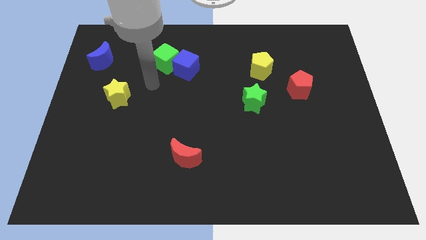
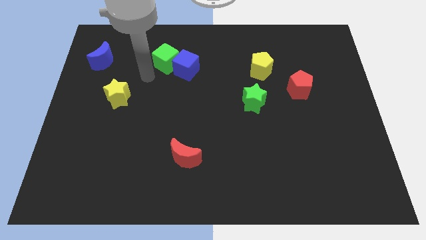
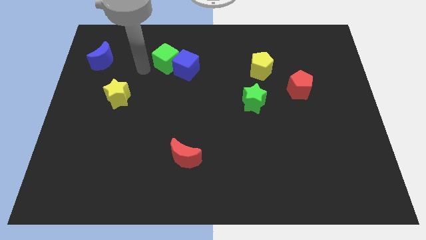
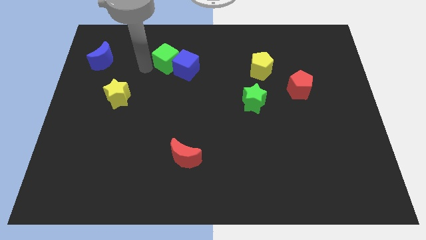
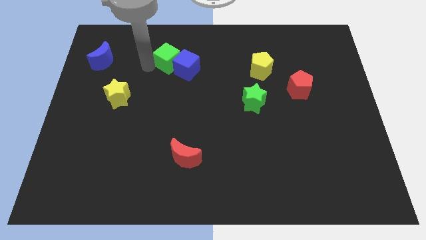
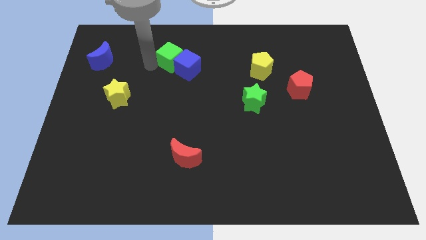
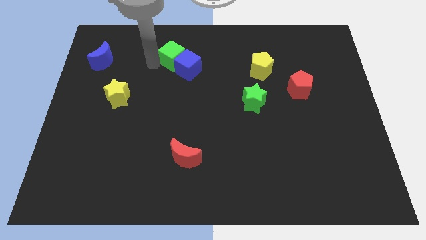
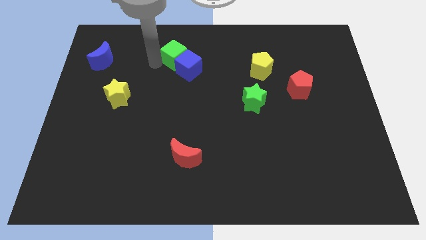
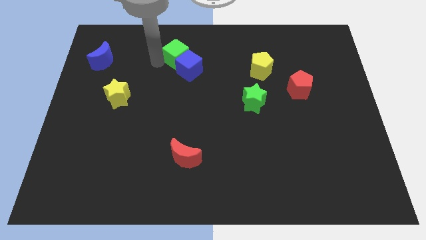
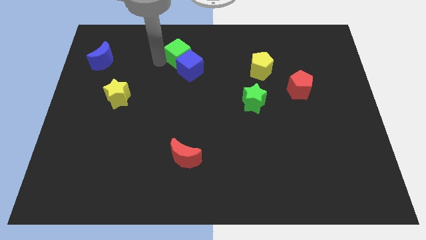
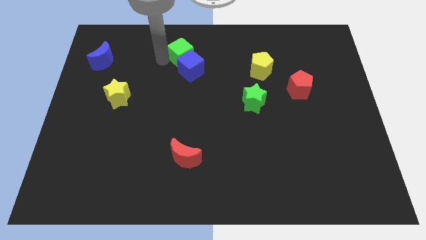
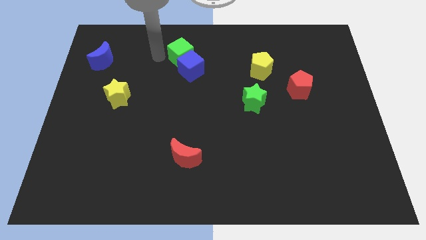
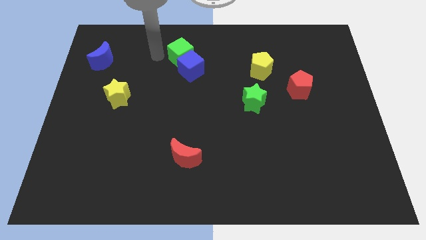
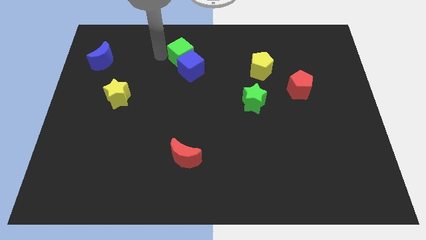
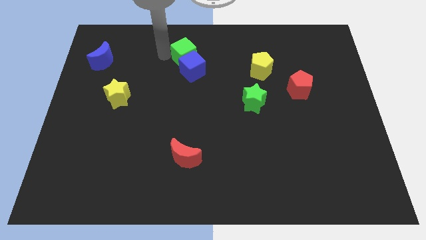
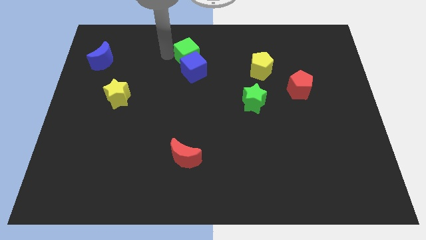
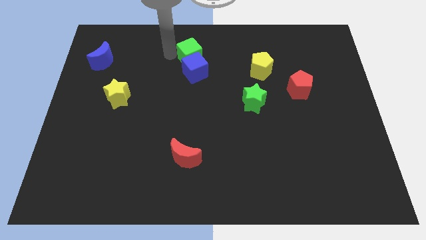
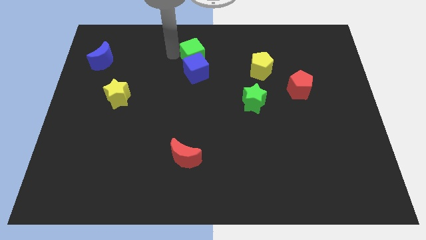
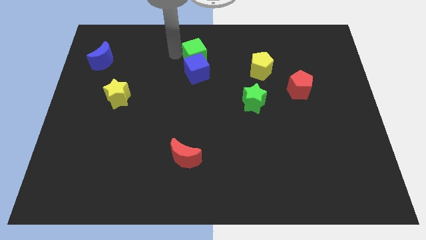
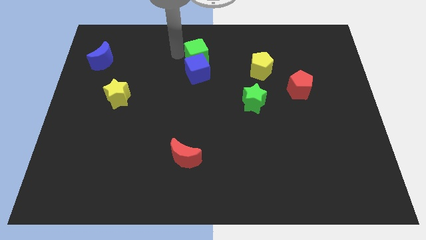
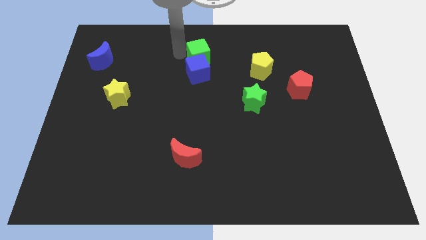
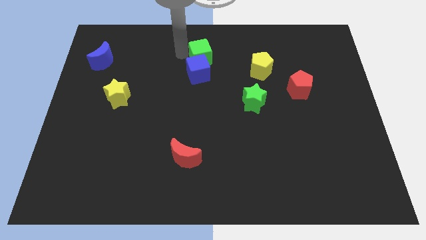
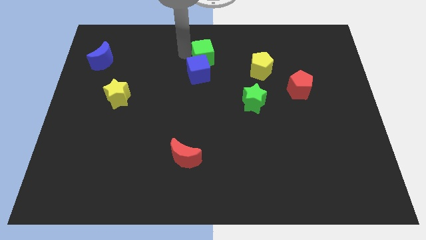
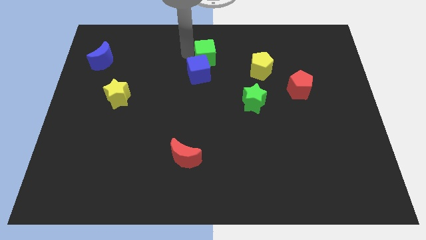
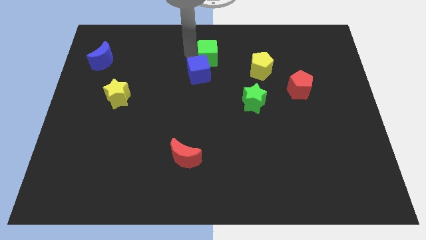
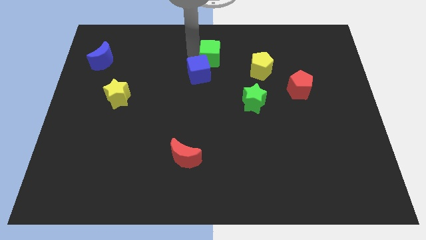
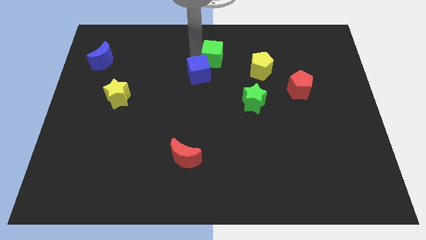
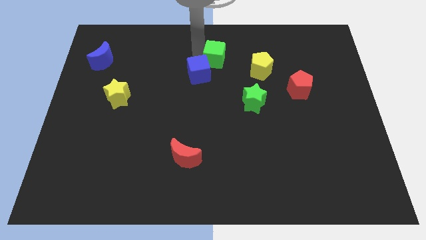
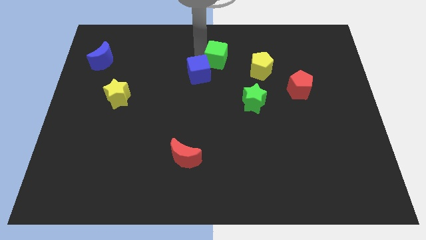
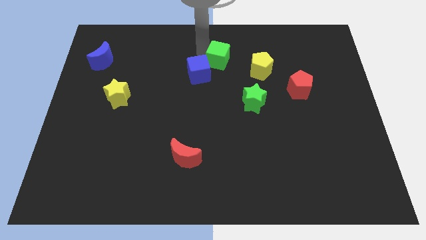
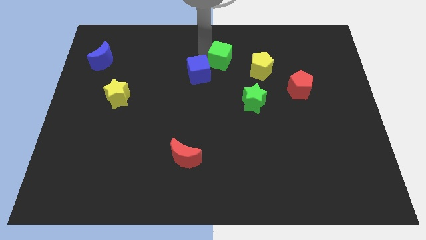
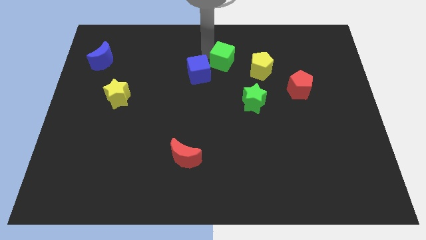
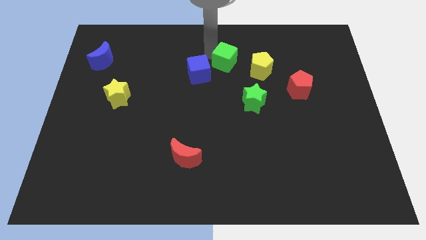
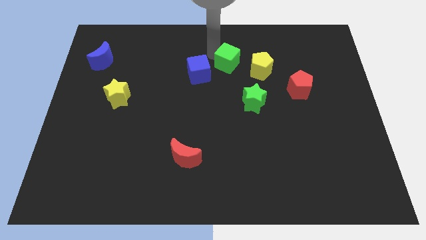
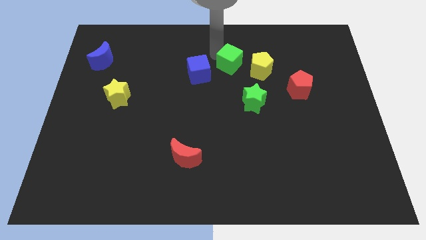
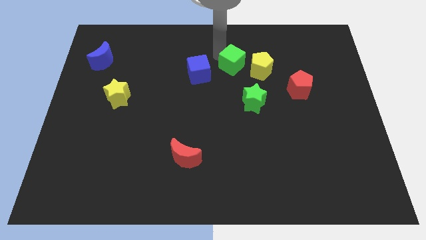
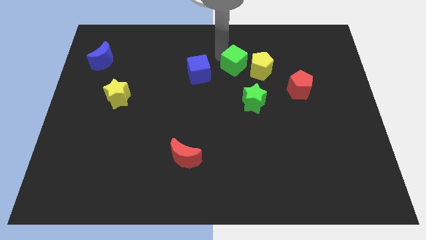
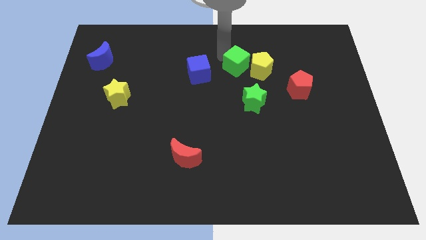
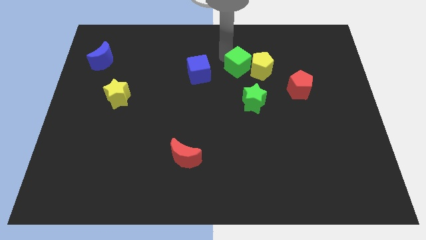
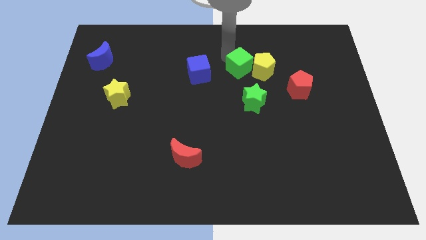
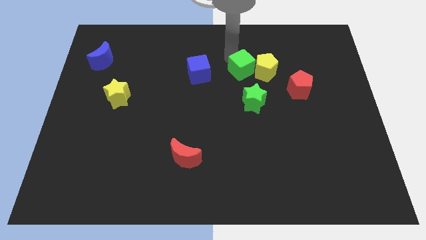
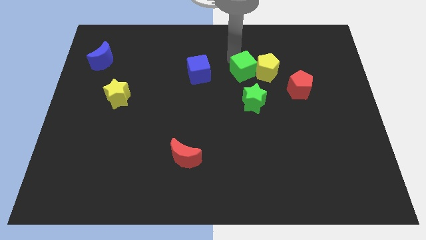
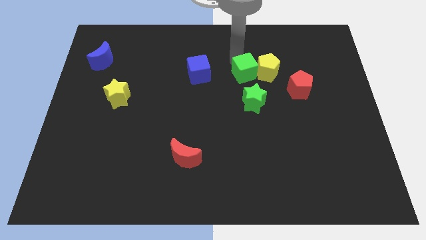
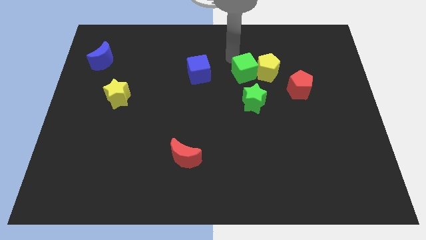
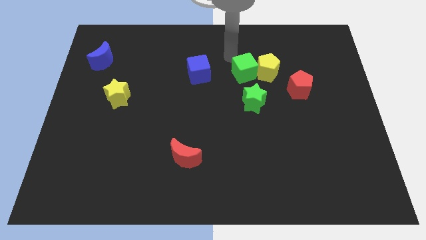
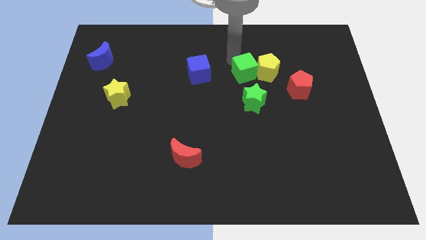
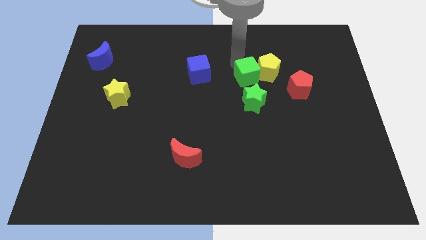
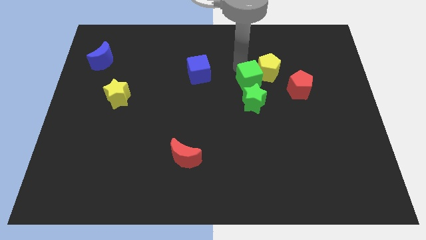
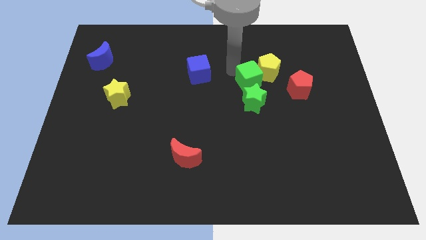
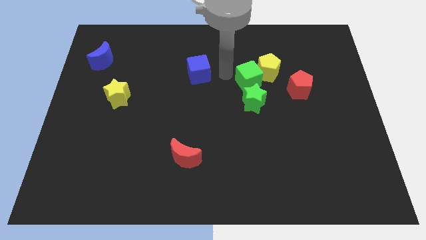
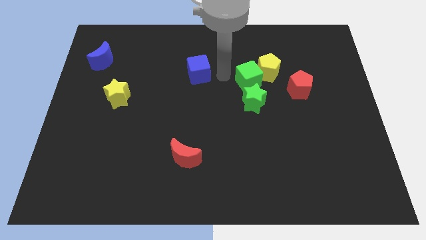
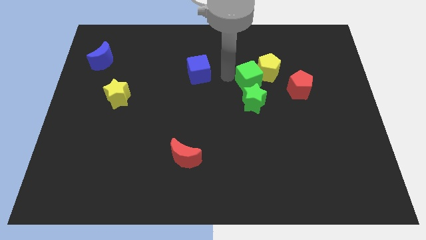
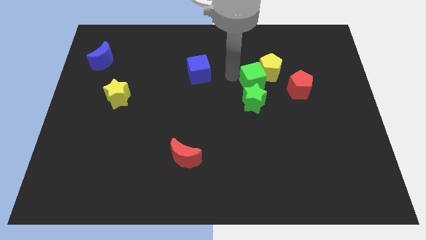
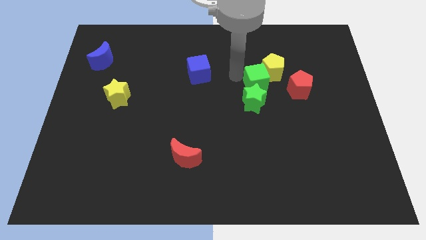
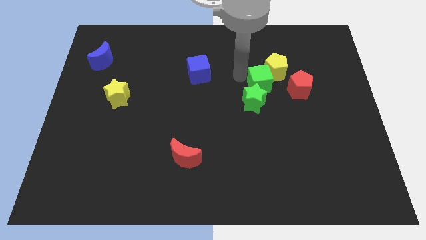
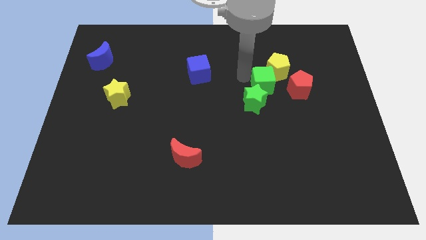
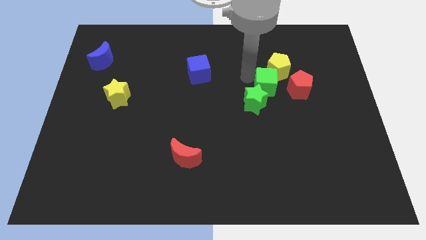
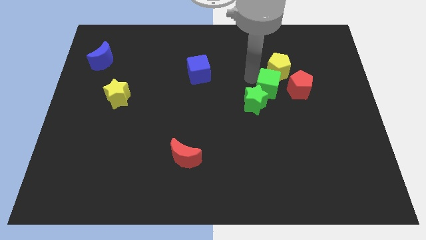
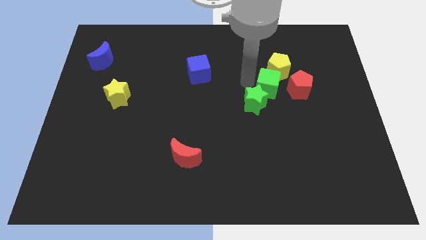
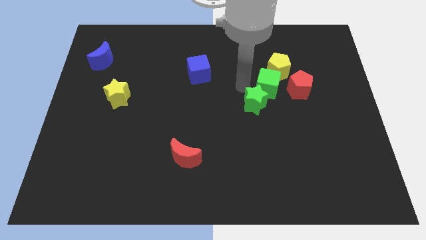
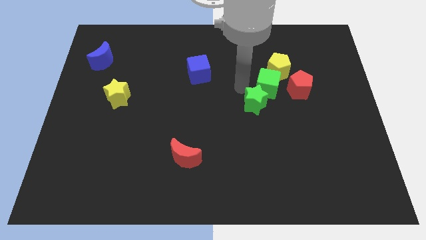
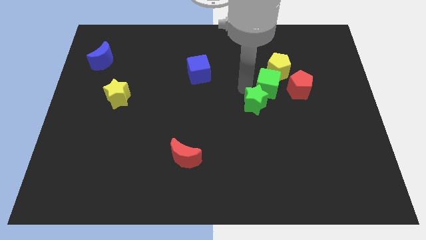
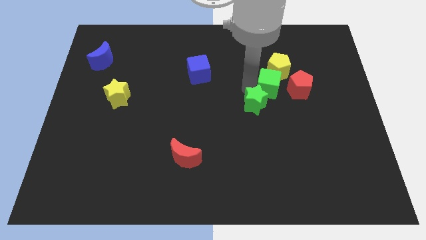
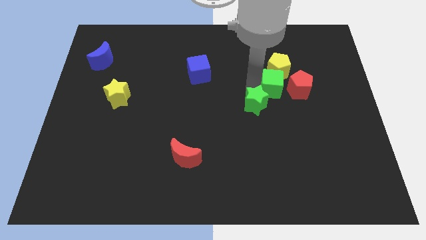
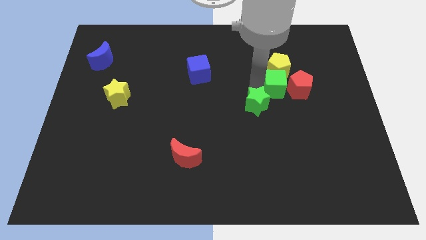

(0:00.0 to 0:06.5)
push the green cube diagonally down and to the right of the yellow pentagon
